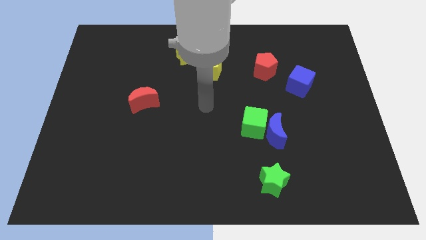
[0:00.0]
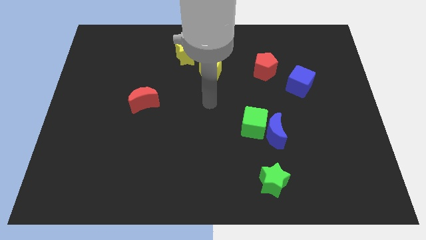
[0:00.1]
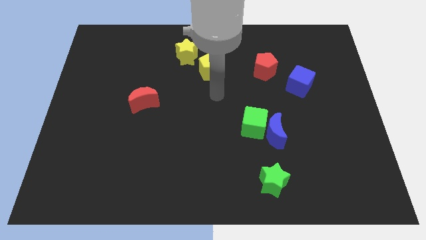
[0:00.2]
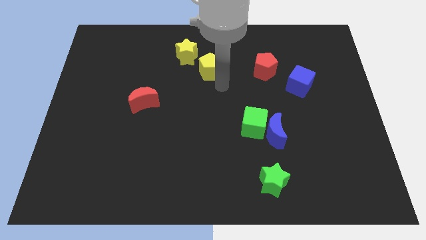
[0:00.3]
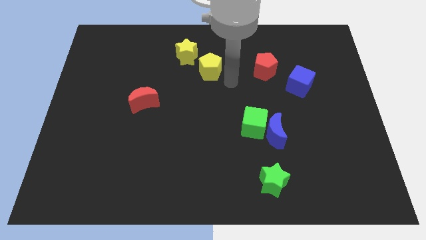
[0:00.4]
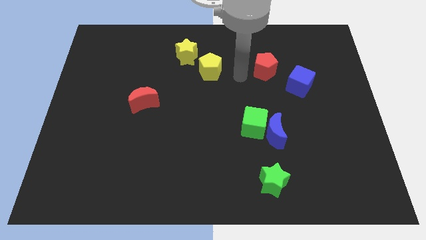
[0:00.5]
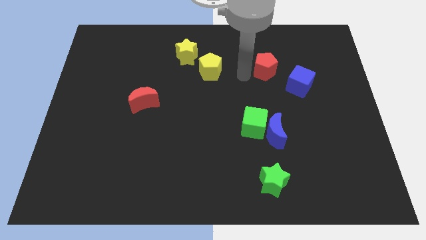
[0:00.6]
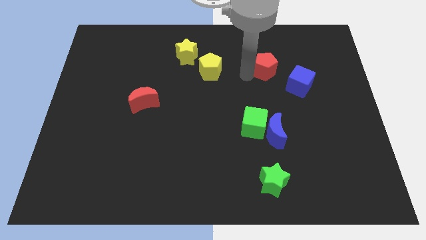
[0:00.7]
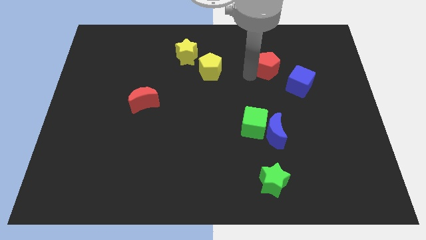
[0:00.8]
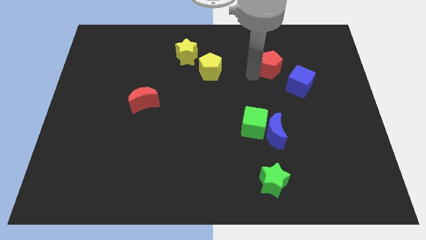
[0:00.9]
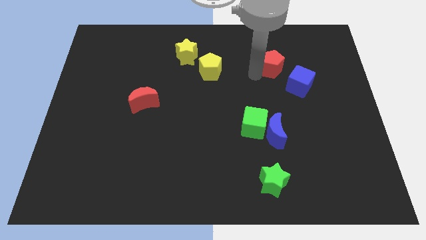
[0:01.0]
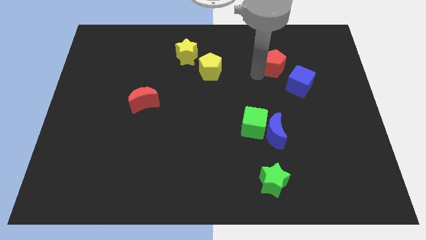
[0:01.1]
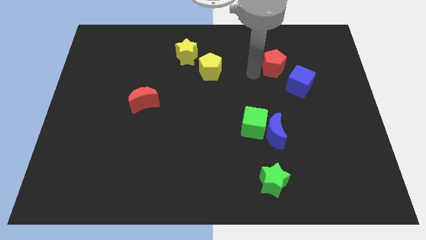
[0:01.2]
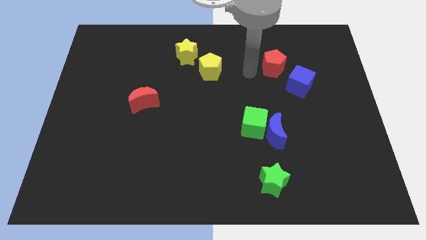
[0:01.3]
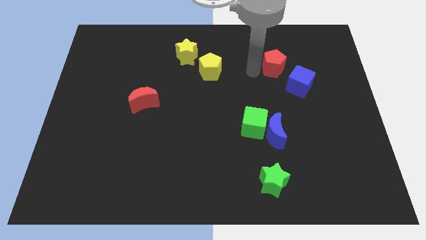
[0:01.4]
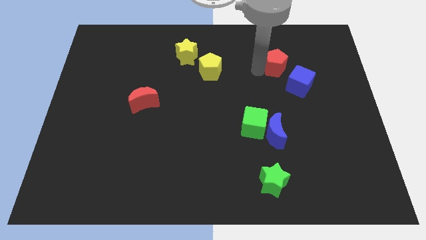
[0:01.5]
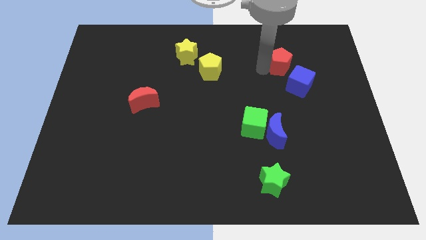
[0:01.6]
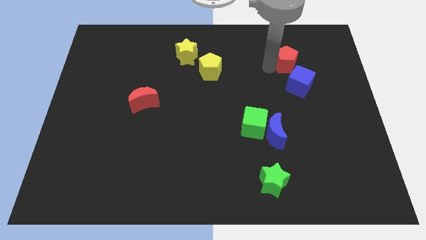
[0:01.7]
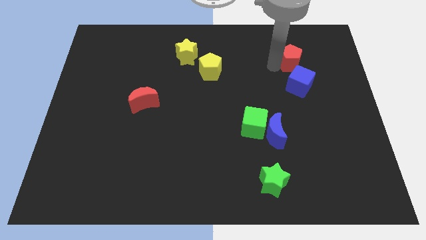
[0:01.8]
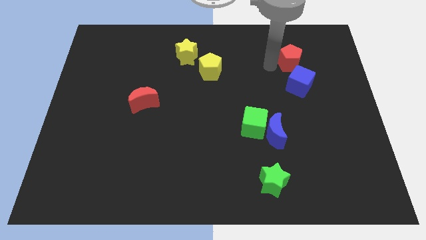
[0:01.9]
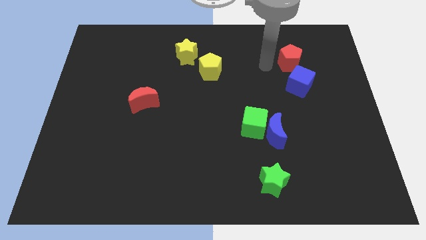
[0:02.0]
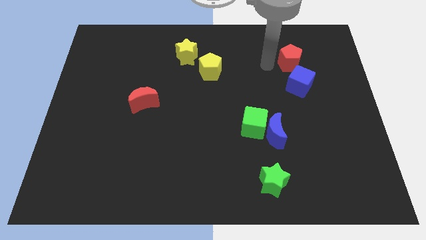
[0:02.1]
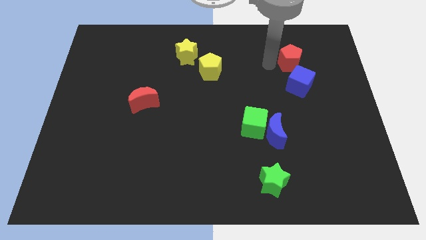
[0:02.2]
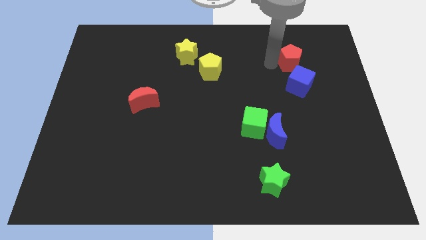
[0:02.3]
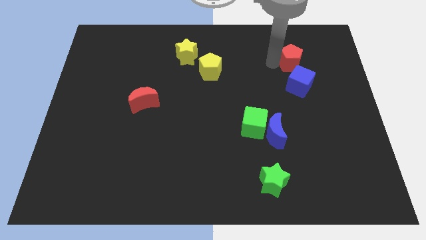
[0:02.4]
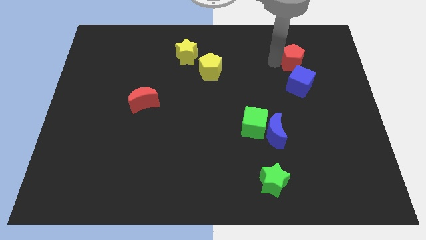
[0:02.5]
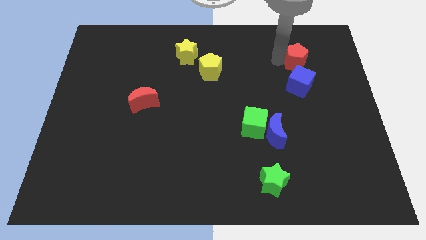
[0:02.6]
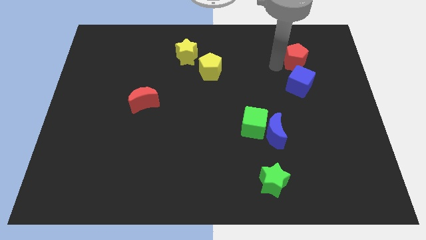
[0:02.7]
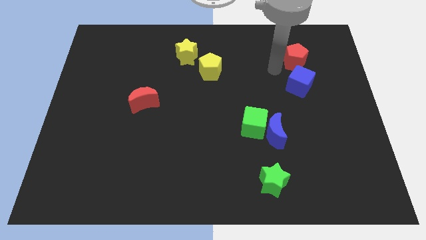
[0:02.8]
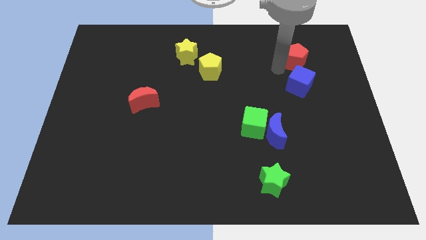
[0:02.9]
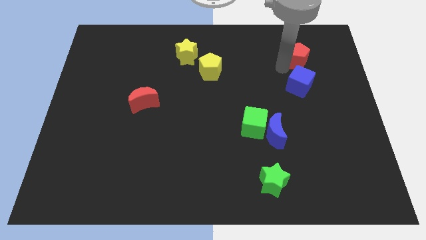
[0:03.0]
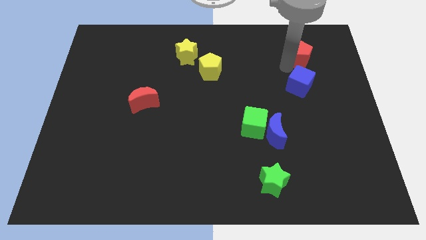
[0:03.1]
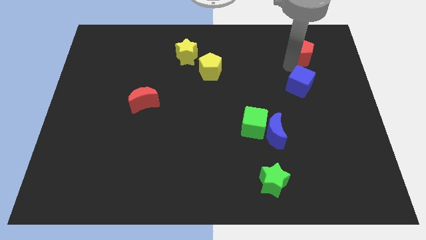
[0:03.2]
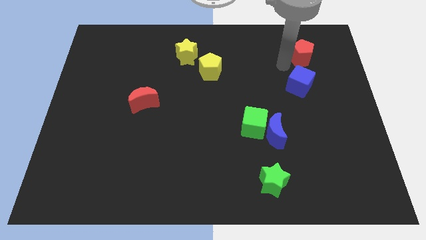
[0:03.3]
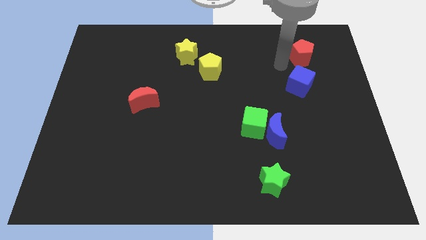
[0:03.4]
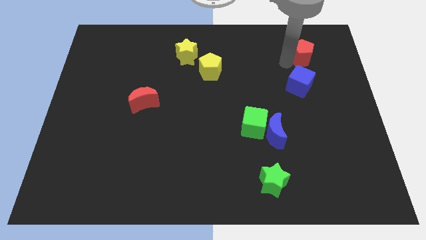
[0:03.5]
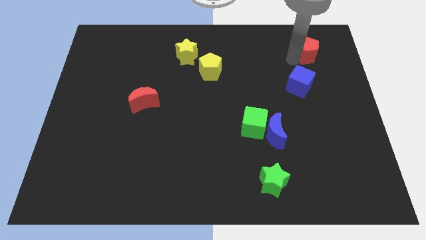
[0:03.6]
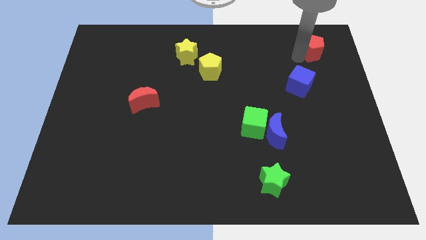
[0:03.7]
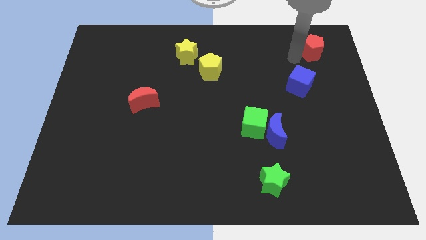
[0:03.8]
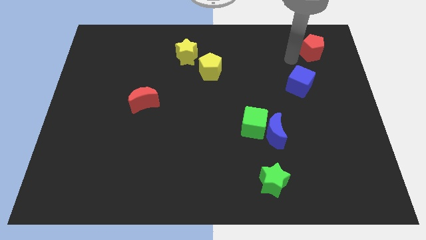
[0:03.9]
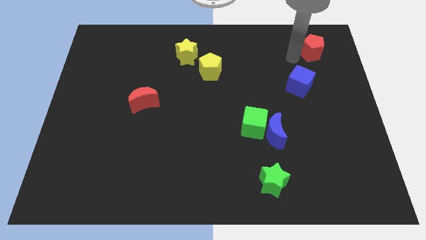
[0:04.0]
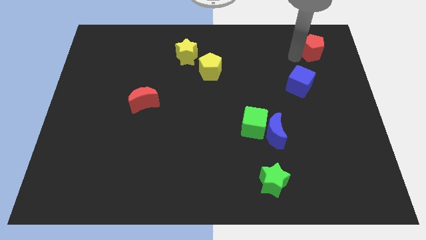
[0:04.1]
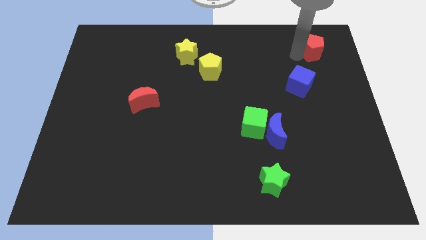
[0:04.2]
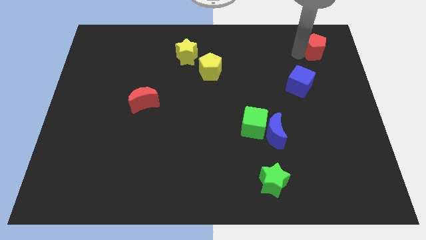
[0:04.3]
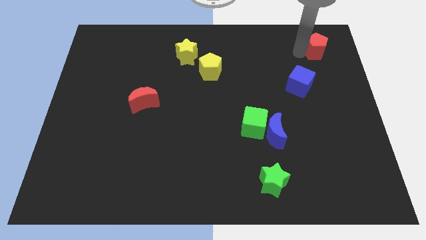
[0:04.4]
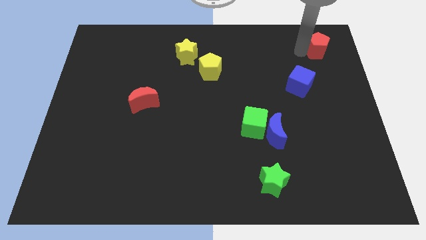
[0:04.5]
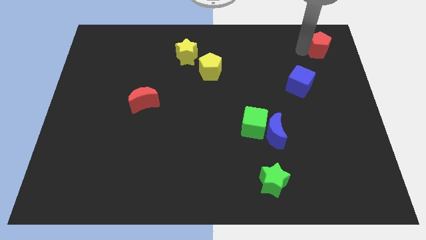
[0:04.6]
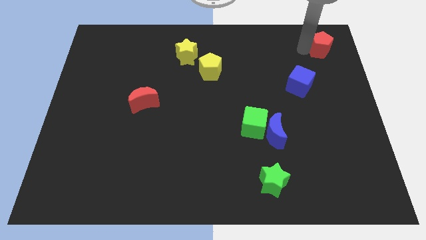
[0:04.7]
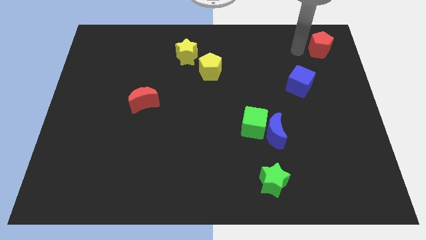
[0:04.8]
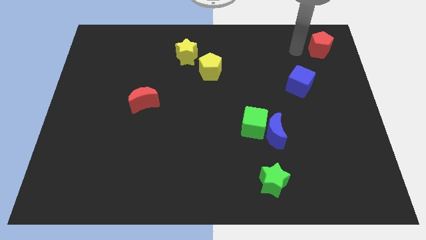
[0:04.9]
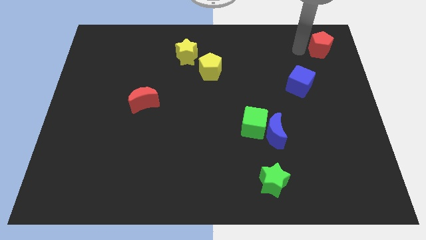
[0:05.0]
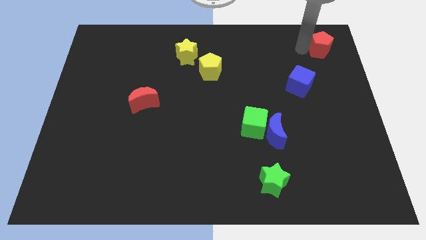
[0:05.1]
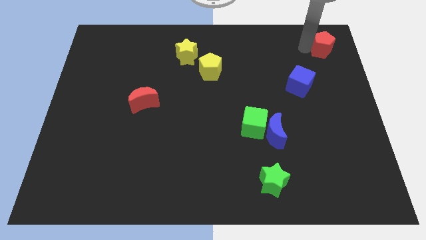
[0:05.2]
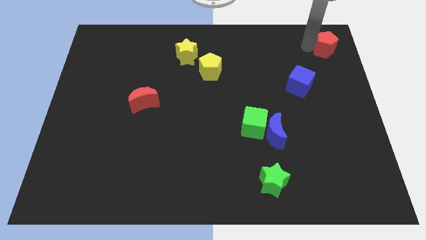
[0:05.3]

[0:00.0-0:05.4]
push the red pentagon to the upper right corner

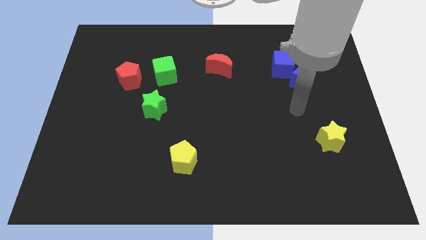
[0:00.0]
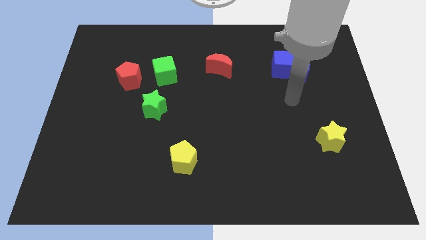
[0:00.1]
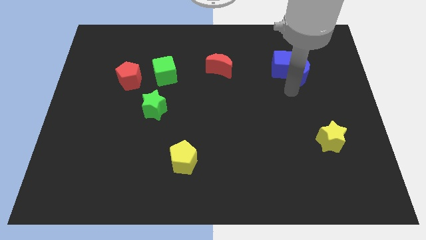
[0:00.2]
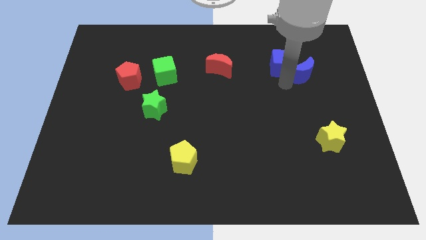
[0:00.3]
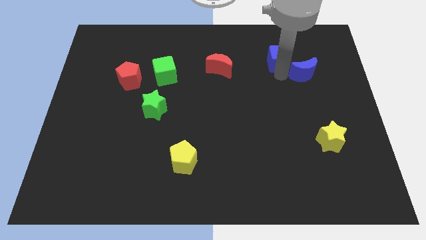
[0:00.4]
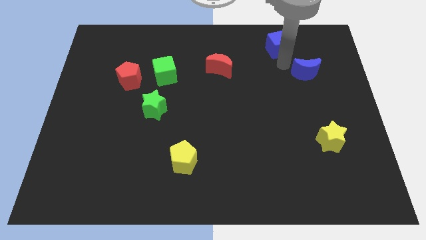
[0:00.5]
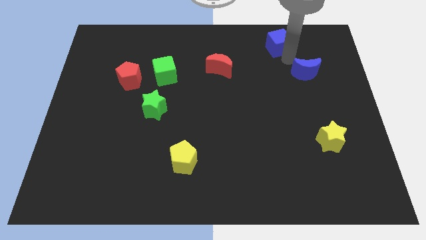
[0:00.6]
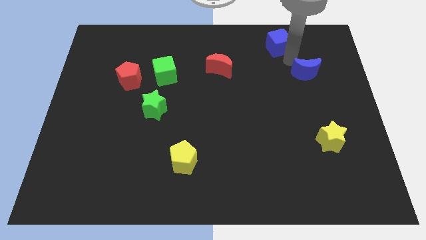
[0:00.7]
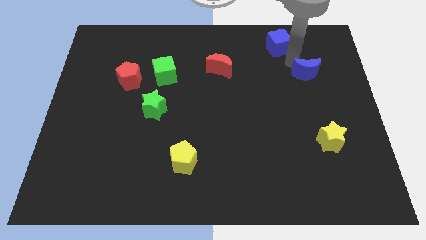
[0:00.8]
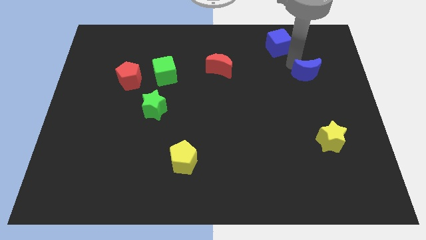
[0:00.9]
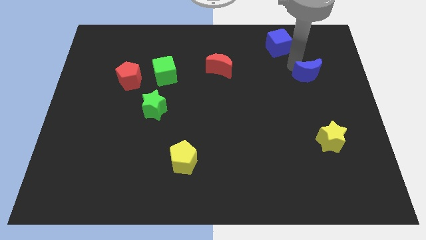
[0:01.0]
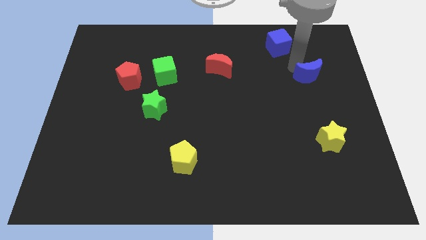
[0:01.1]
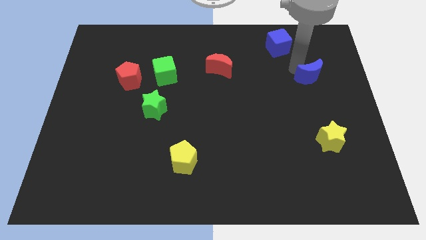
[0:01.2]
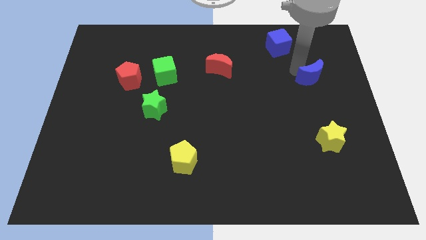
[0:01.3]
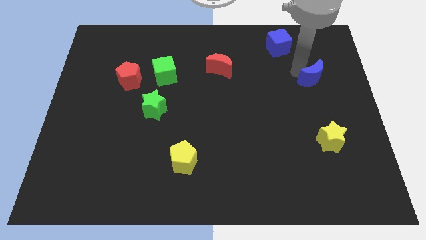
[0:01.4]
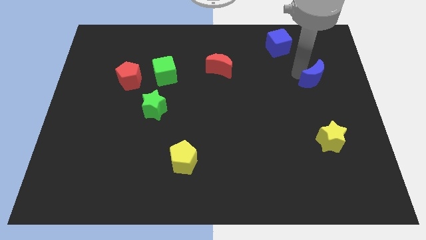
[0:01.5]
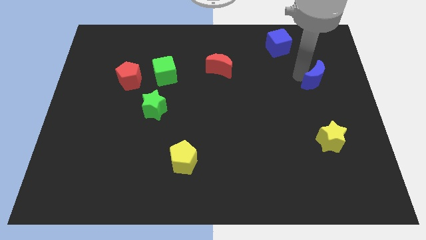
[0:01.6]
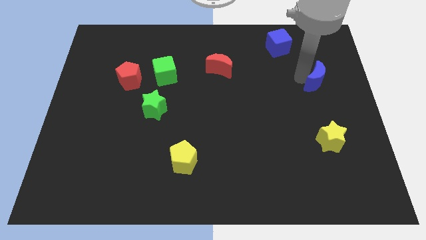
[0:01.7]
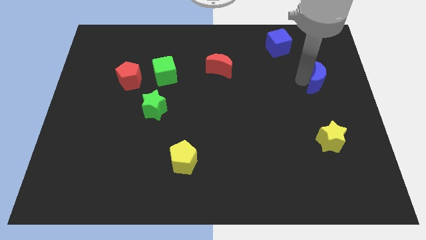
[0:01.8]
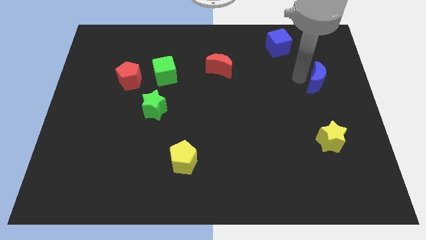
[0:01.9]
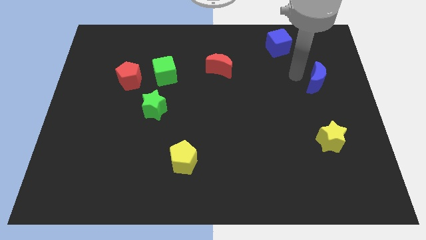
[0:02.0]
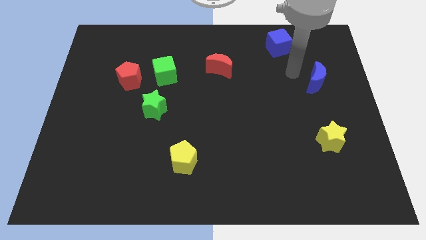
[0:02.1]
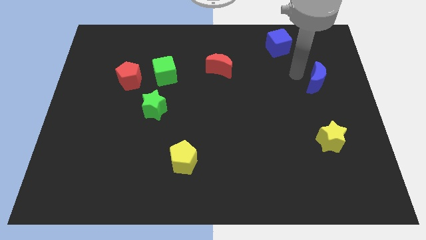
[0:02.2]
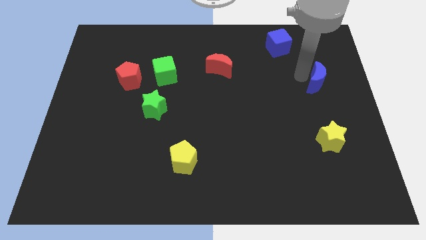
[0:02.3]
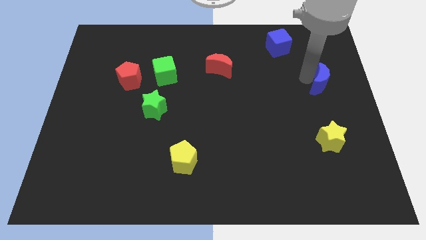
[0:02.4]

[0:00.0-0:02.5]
slide the blue moon to the right side of the board
